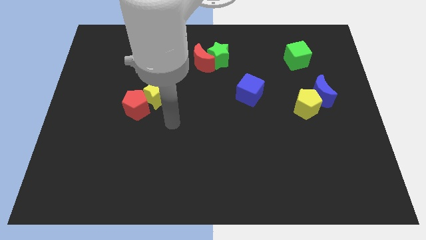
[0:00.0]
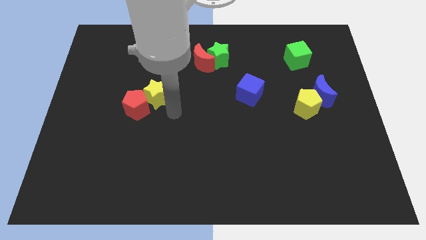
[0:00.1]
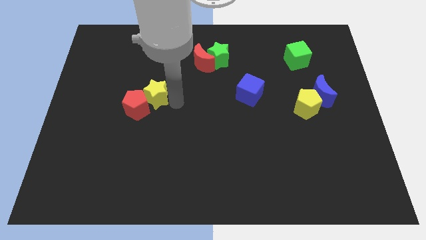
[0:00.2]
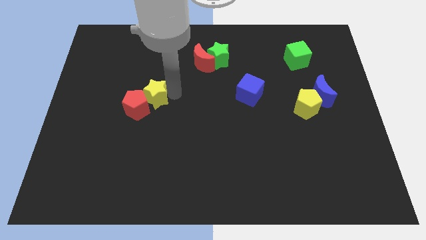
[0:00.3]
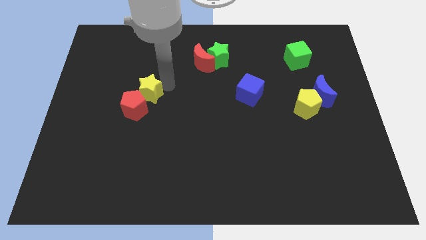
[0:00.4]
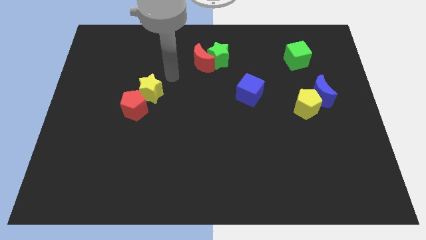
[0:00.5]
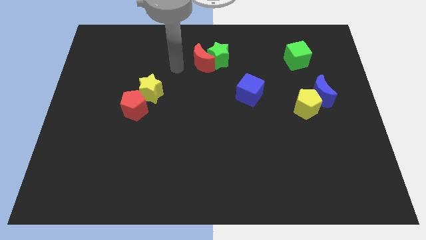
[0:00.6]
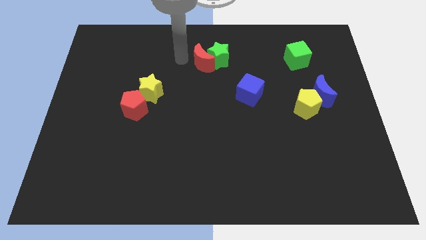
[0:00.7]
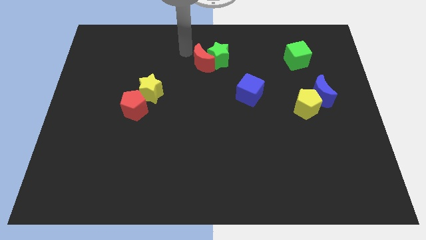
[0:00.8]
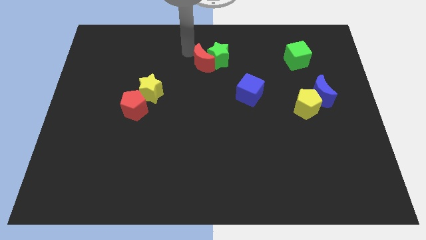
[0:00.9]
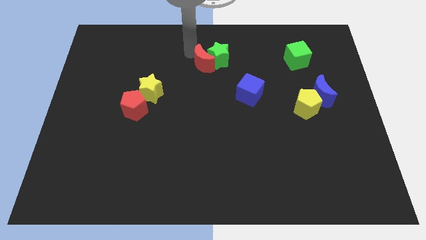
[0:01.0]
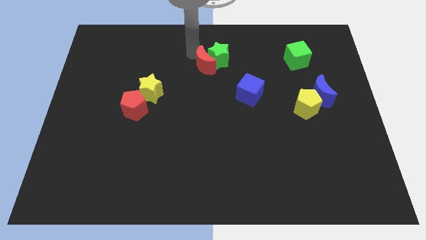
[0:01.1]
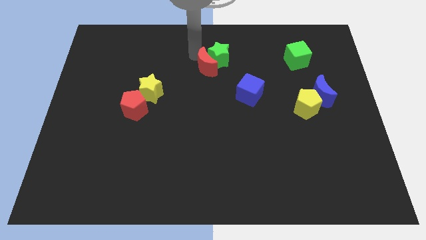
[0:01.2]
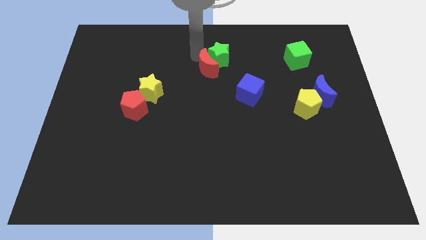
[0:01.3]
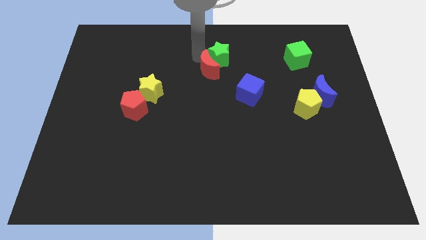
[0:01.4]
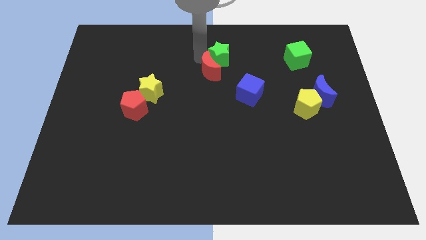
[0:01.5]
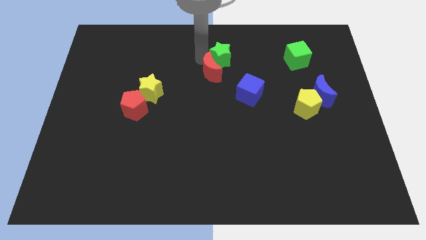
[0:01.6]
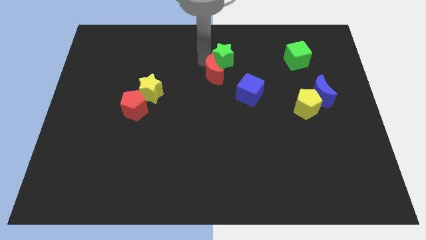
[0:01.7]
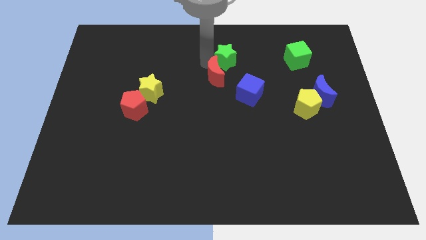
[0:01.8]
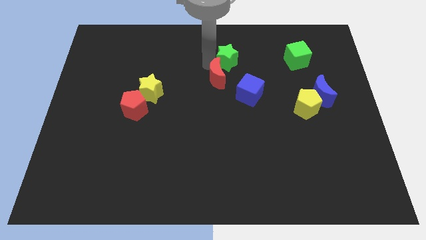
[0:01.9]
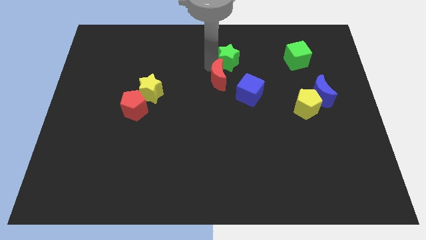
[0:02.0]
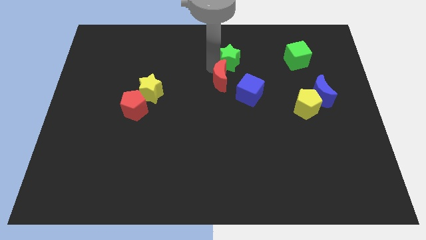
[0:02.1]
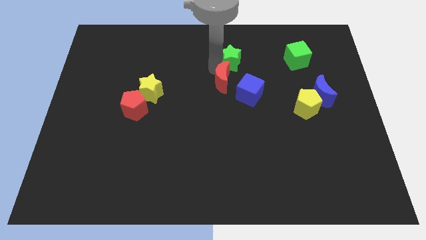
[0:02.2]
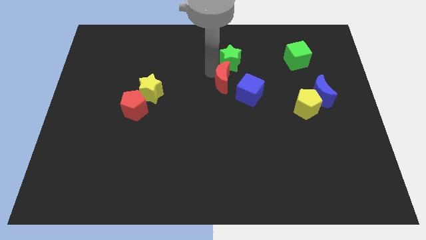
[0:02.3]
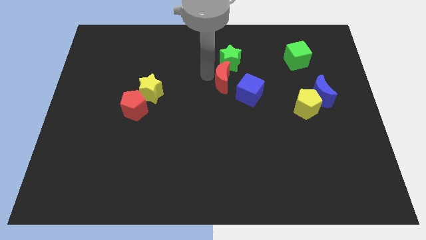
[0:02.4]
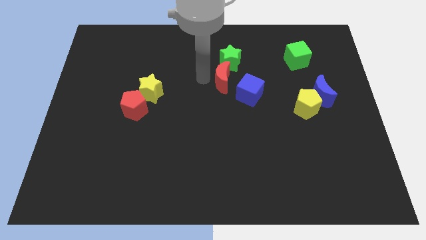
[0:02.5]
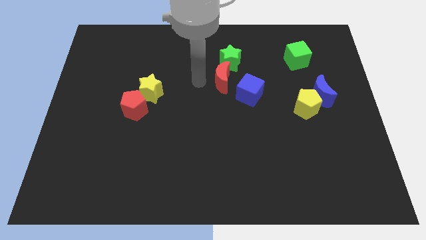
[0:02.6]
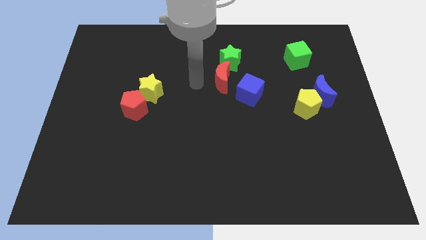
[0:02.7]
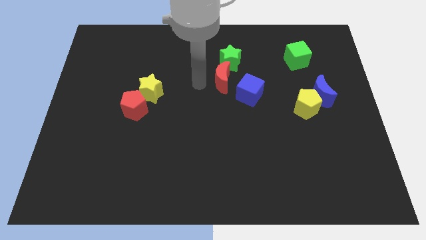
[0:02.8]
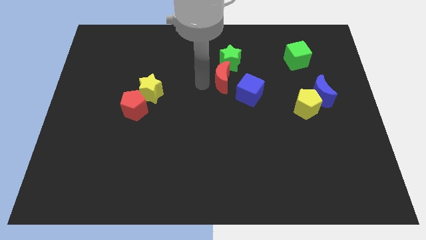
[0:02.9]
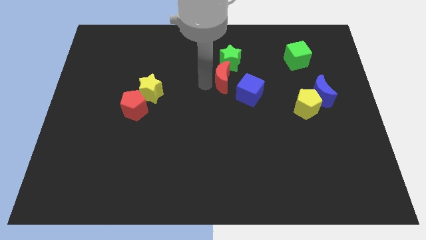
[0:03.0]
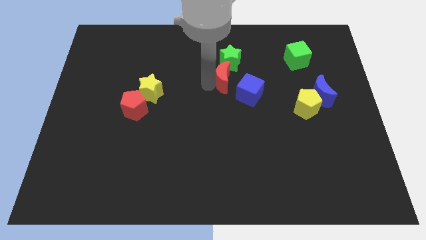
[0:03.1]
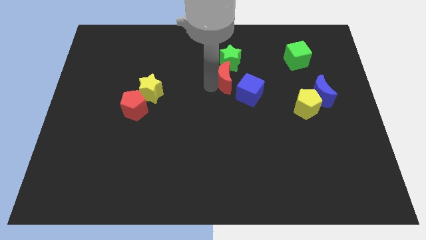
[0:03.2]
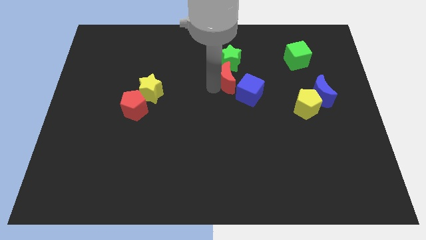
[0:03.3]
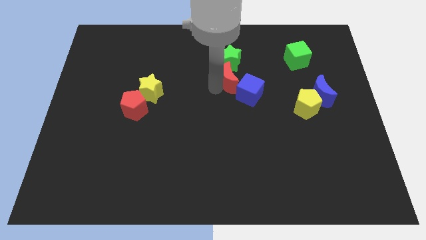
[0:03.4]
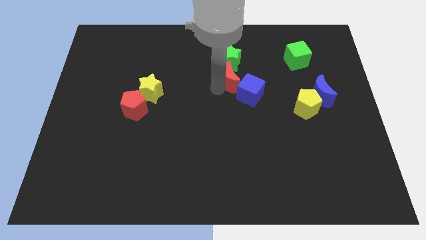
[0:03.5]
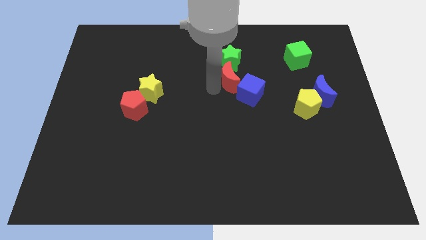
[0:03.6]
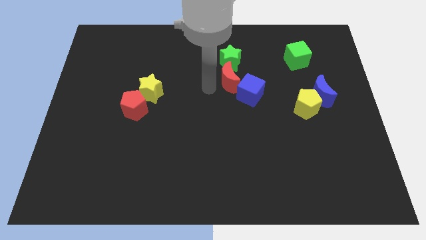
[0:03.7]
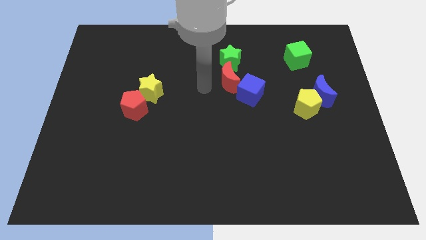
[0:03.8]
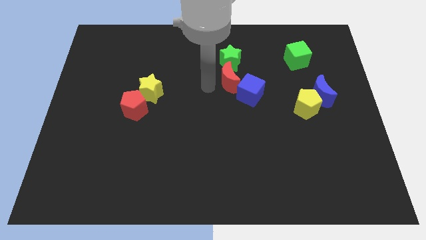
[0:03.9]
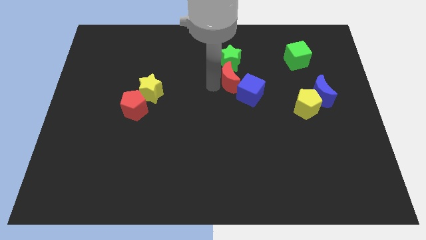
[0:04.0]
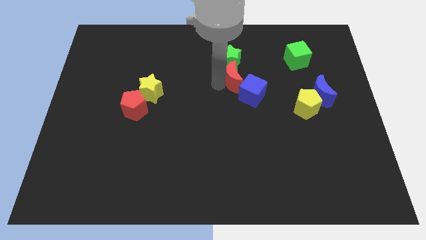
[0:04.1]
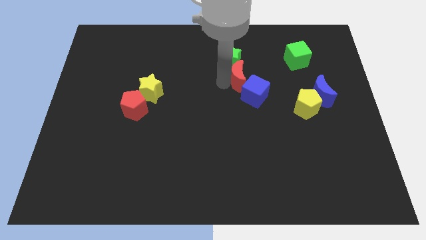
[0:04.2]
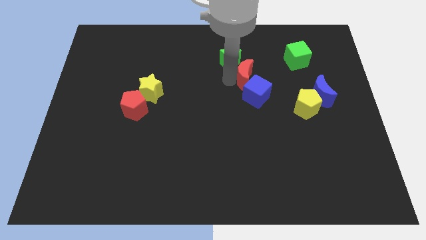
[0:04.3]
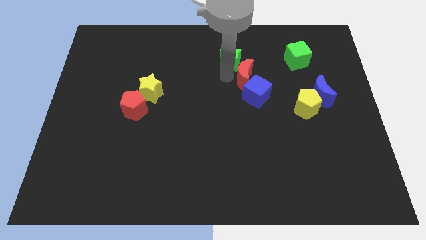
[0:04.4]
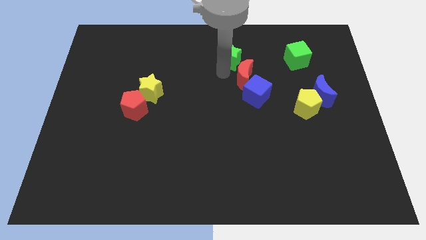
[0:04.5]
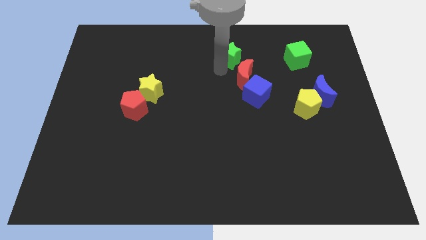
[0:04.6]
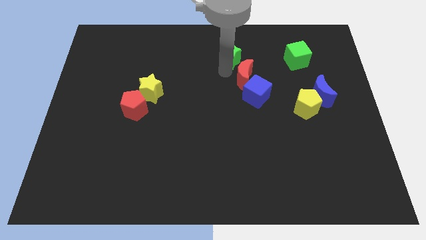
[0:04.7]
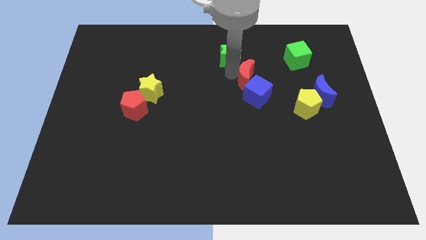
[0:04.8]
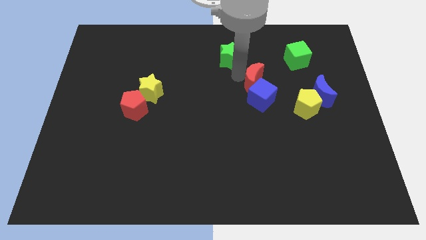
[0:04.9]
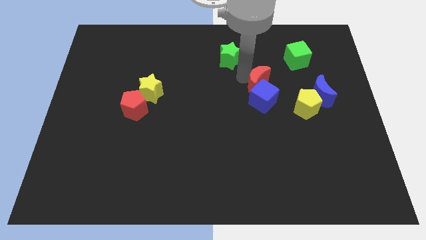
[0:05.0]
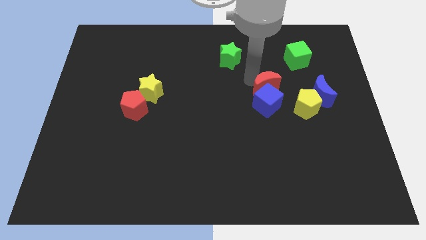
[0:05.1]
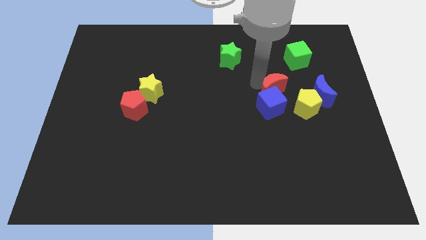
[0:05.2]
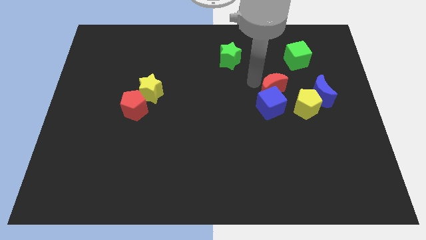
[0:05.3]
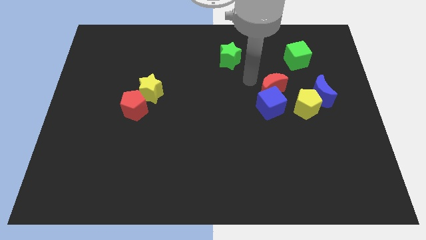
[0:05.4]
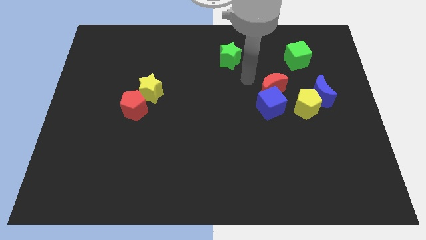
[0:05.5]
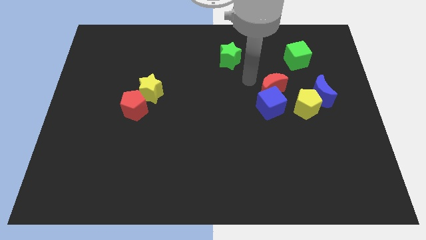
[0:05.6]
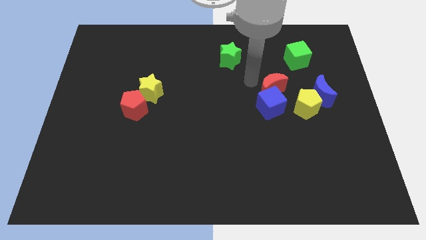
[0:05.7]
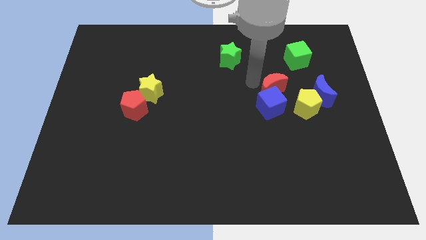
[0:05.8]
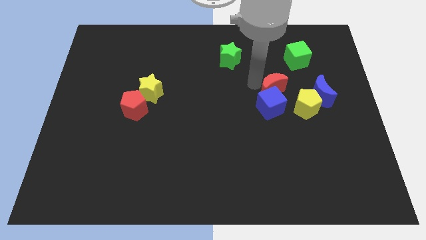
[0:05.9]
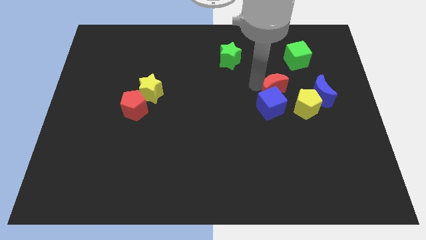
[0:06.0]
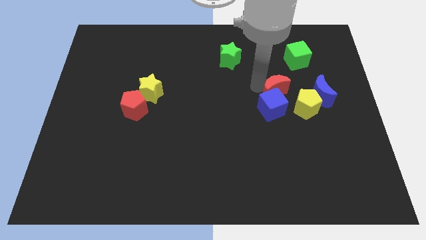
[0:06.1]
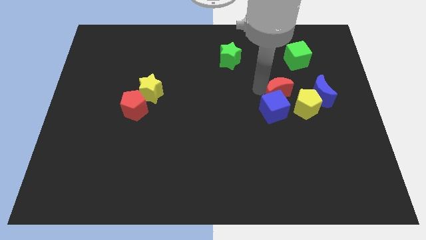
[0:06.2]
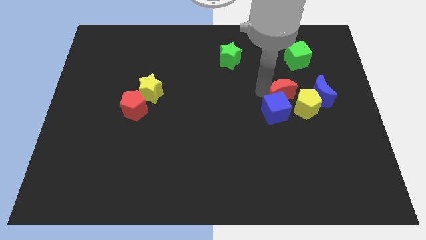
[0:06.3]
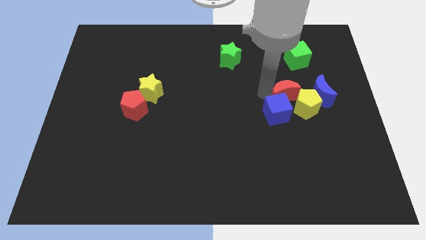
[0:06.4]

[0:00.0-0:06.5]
put the red moon close to the yellow pentagon

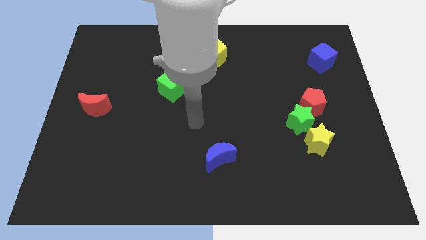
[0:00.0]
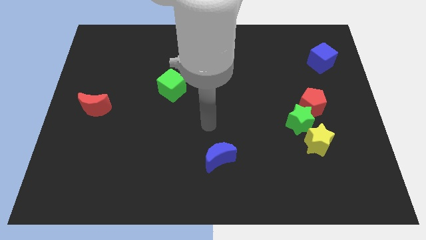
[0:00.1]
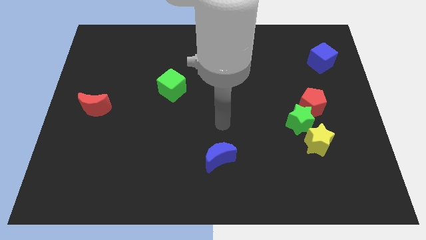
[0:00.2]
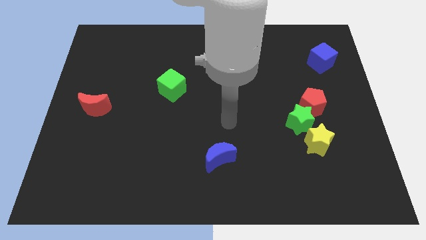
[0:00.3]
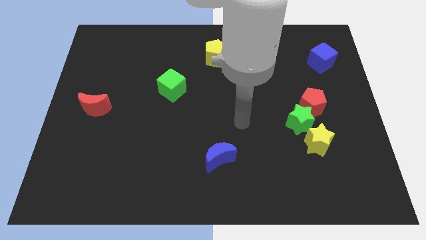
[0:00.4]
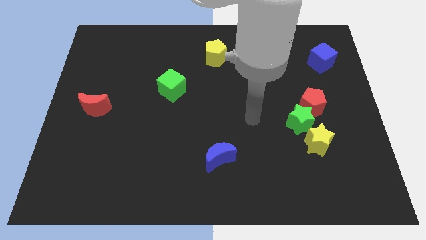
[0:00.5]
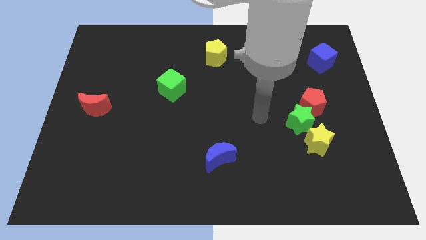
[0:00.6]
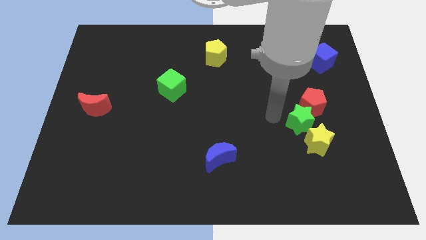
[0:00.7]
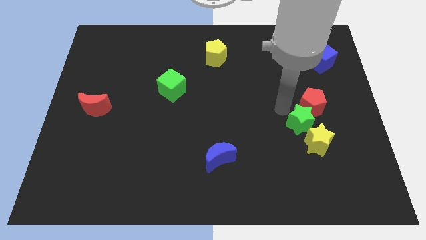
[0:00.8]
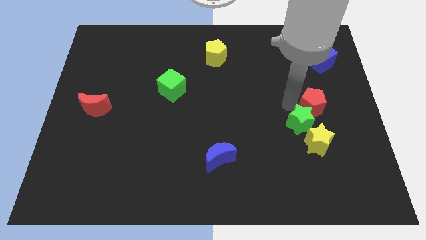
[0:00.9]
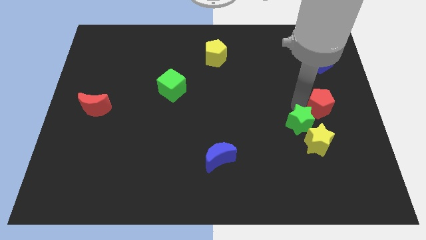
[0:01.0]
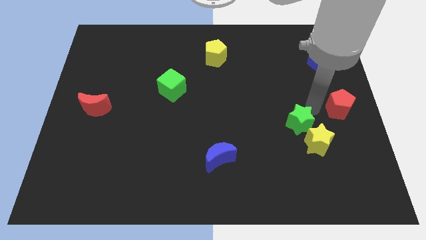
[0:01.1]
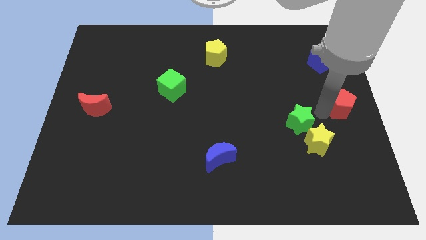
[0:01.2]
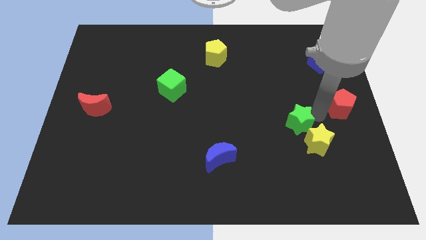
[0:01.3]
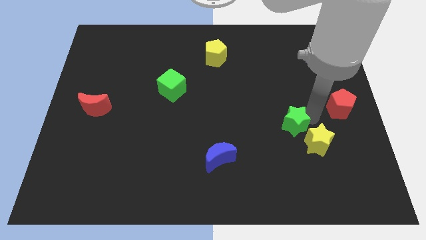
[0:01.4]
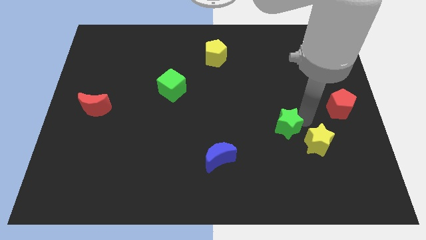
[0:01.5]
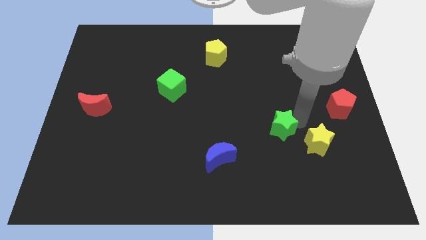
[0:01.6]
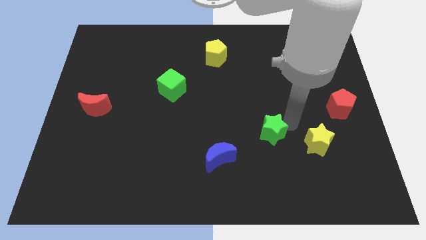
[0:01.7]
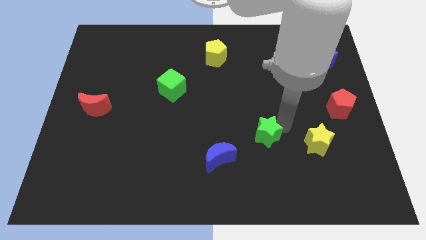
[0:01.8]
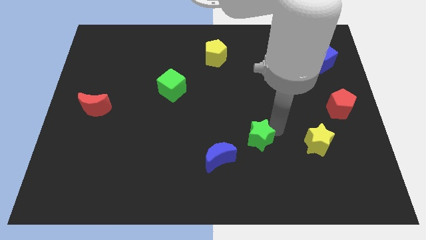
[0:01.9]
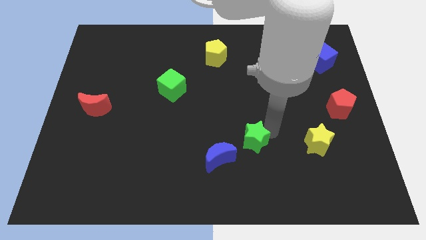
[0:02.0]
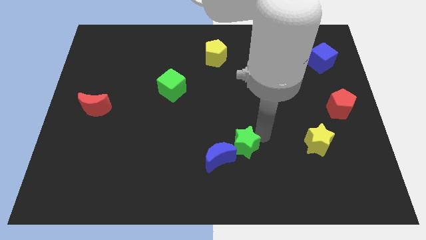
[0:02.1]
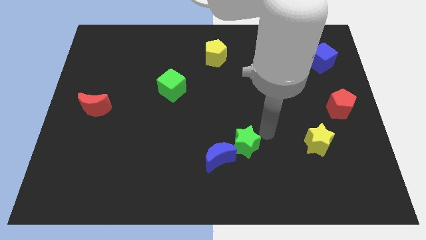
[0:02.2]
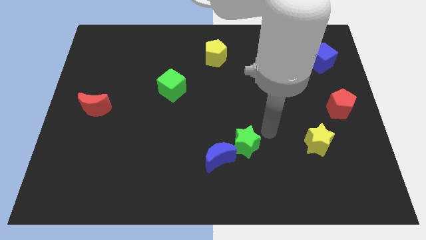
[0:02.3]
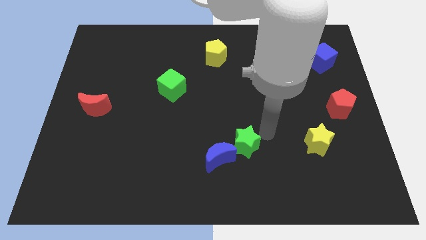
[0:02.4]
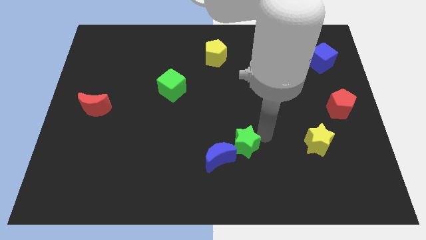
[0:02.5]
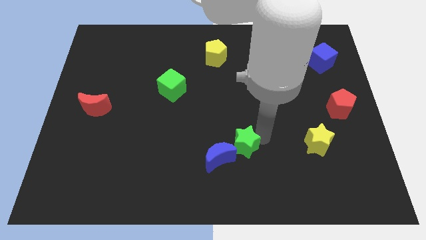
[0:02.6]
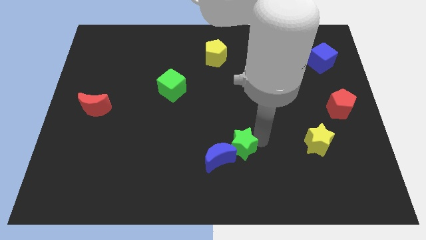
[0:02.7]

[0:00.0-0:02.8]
put the green star close to the blue moon
